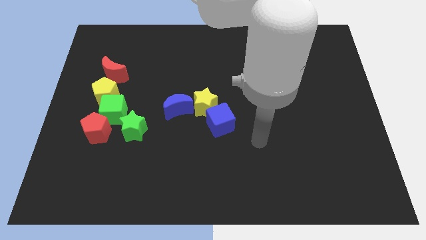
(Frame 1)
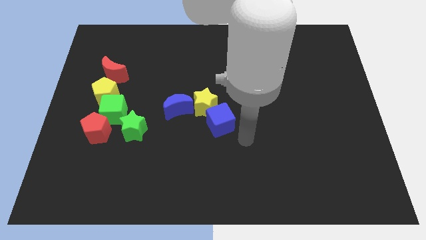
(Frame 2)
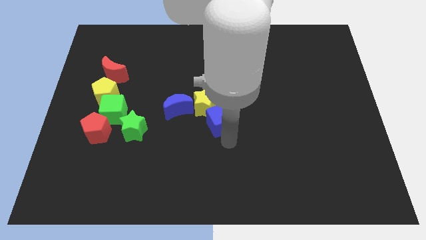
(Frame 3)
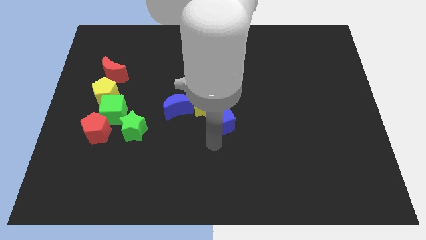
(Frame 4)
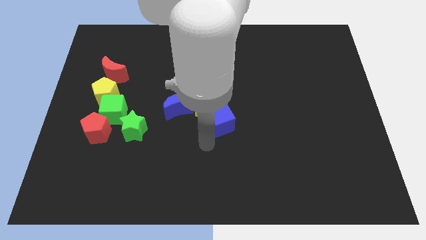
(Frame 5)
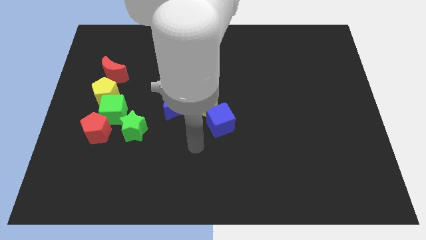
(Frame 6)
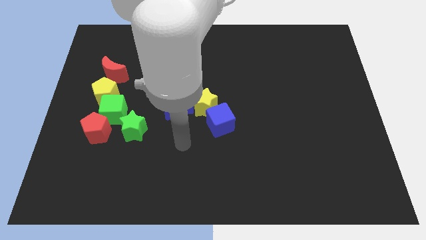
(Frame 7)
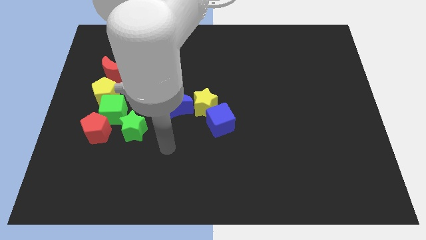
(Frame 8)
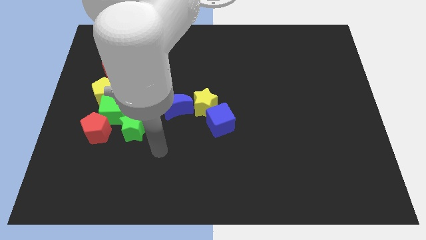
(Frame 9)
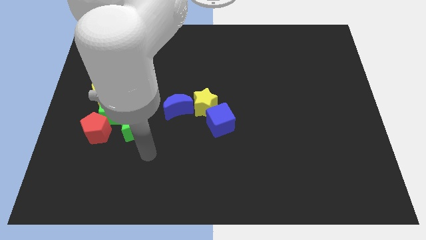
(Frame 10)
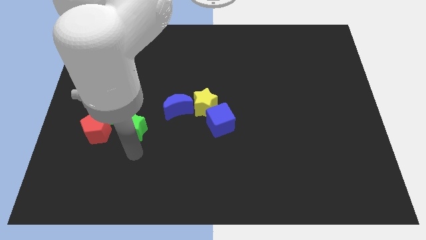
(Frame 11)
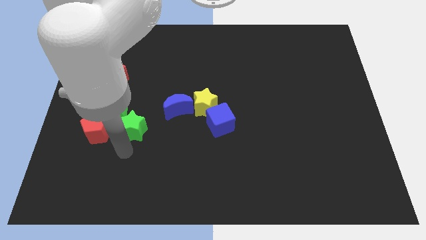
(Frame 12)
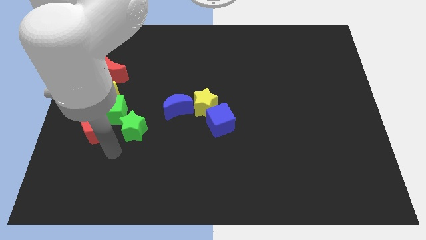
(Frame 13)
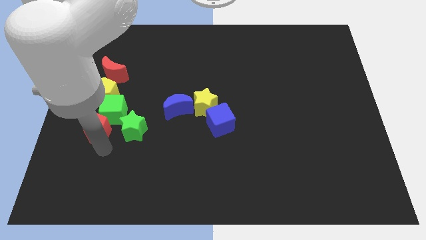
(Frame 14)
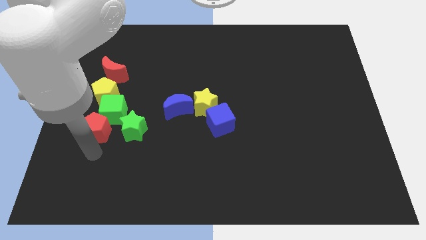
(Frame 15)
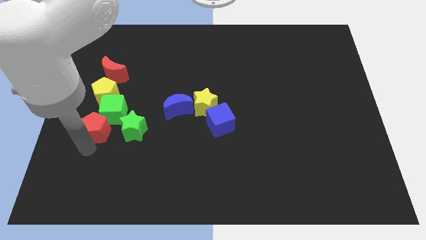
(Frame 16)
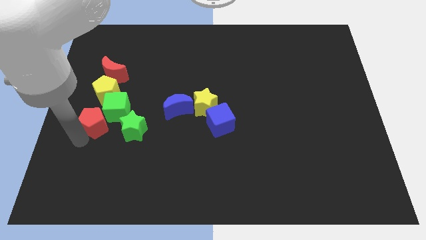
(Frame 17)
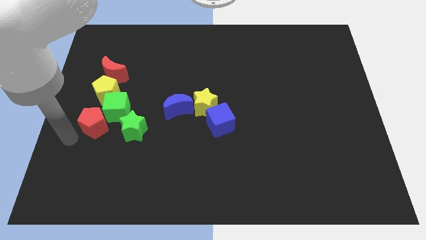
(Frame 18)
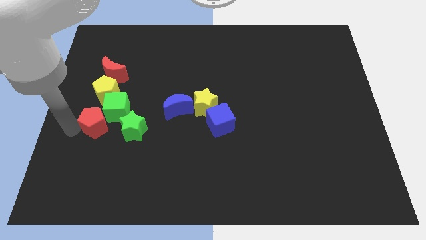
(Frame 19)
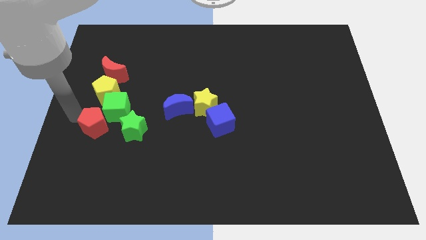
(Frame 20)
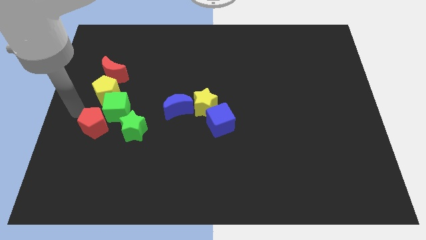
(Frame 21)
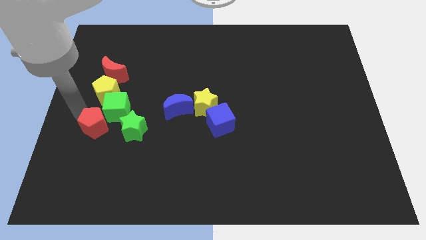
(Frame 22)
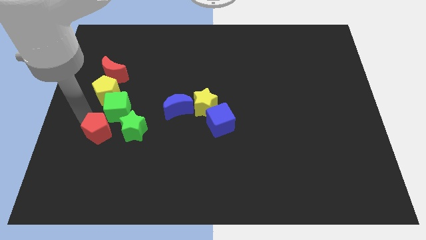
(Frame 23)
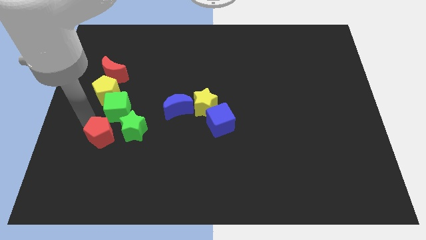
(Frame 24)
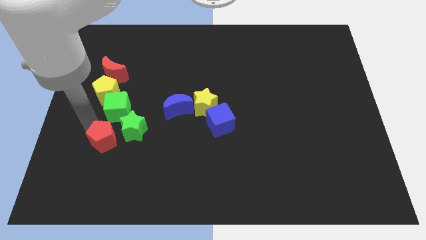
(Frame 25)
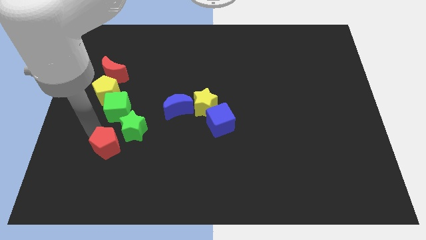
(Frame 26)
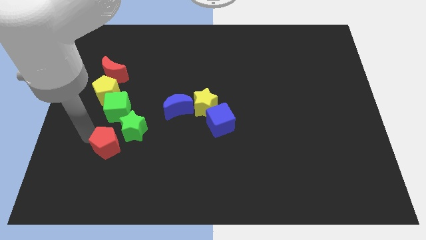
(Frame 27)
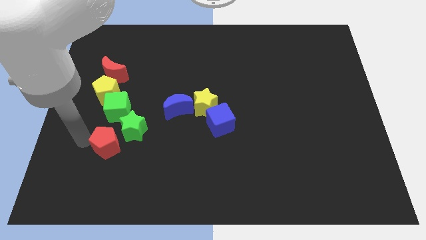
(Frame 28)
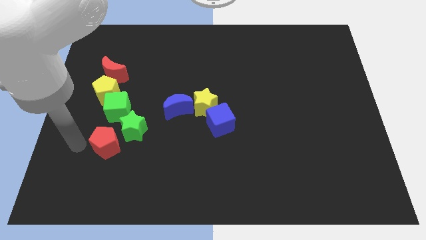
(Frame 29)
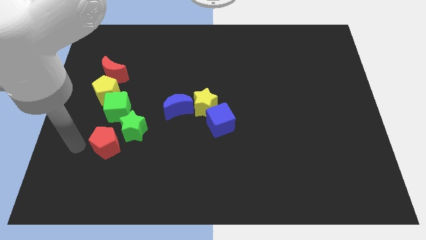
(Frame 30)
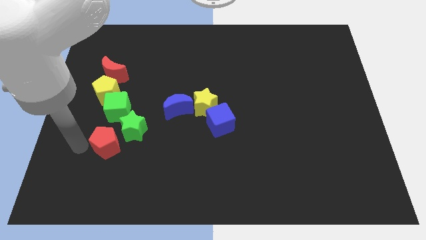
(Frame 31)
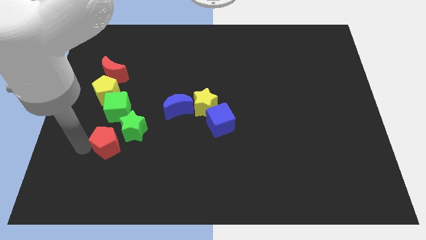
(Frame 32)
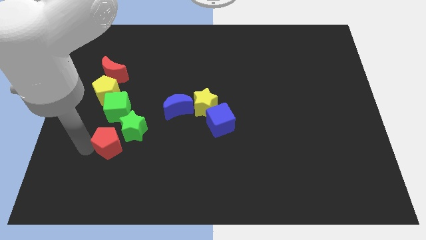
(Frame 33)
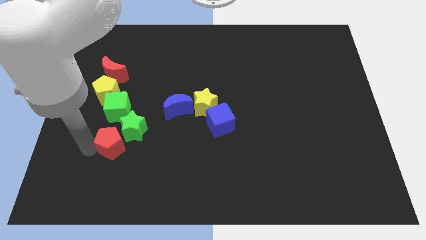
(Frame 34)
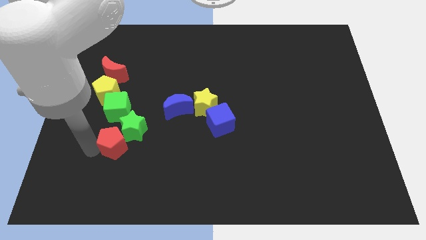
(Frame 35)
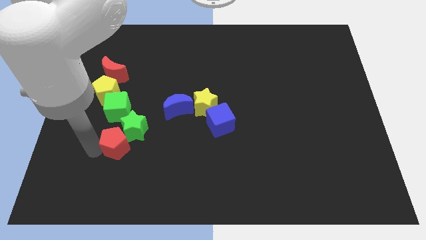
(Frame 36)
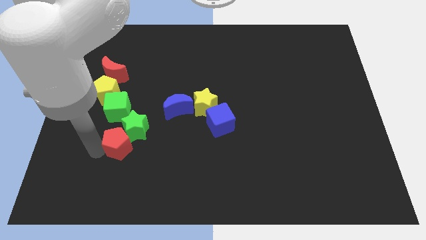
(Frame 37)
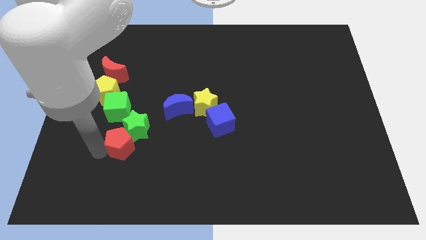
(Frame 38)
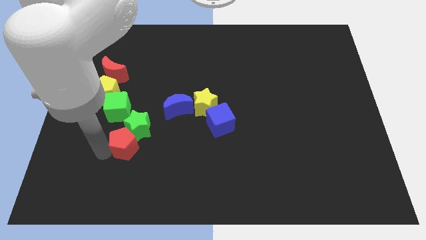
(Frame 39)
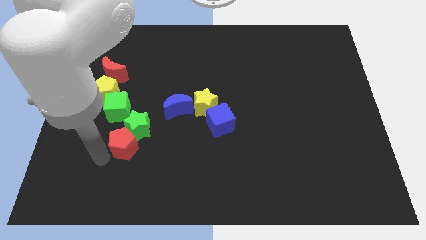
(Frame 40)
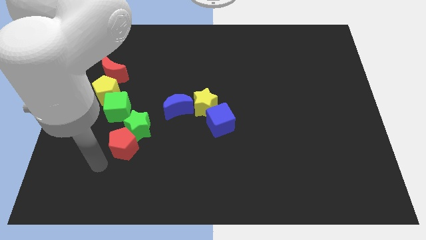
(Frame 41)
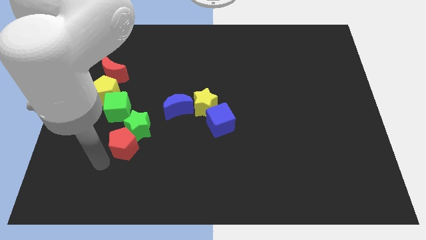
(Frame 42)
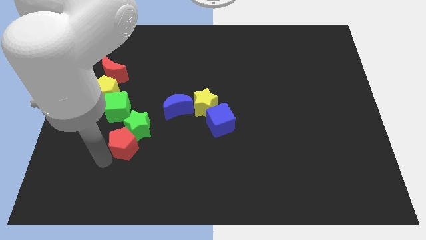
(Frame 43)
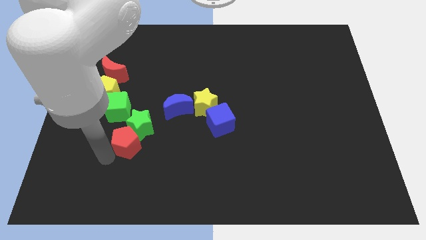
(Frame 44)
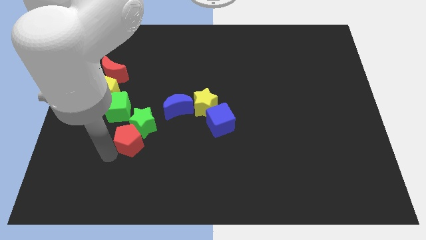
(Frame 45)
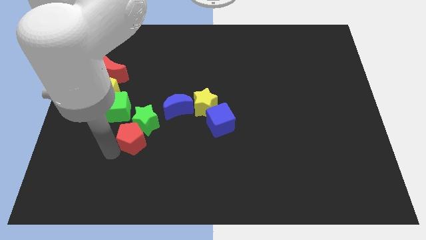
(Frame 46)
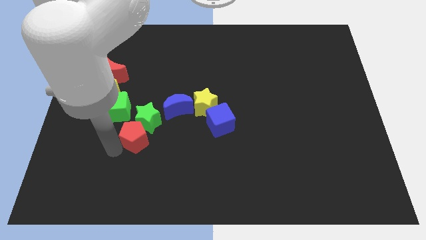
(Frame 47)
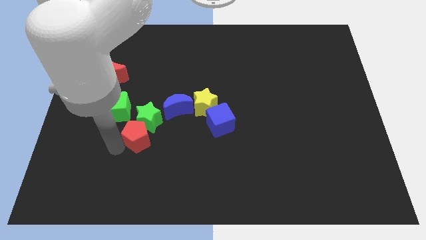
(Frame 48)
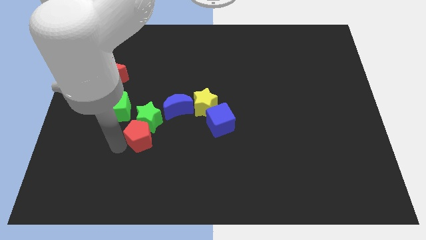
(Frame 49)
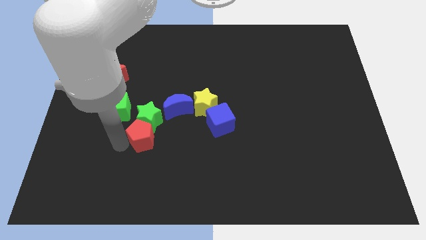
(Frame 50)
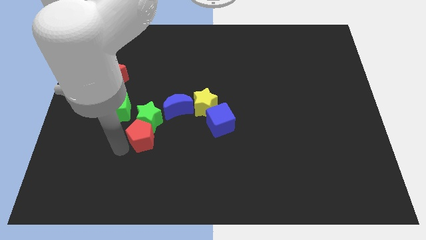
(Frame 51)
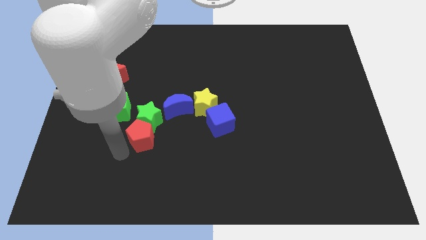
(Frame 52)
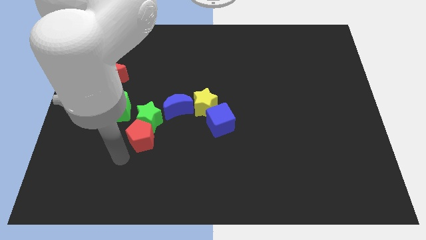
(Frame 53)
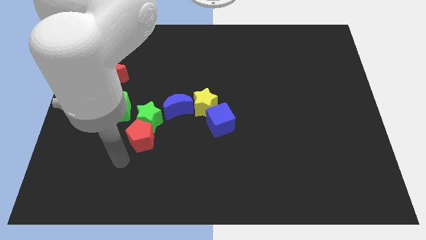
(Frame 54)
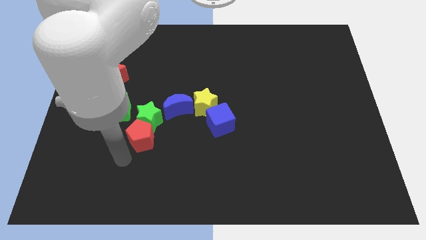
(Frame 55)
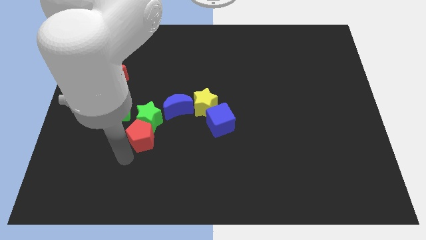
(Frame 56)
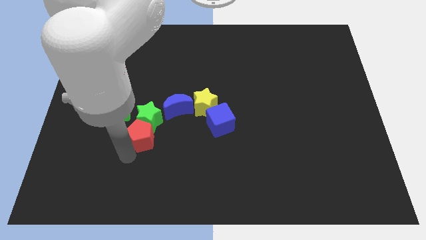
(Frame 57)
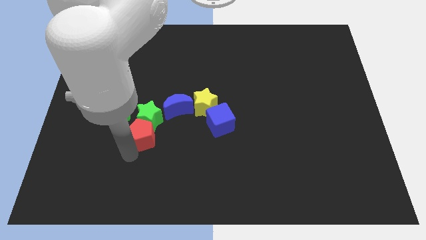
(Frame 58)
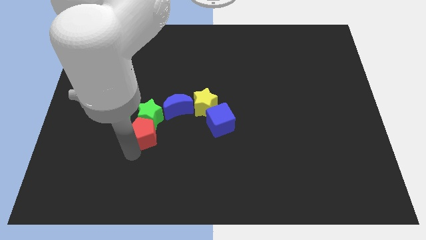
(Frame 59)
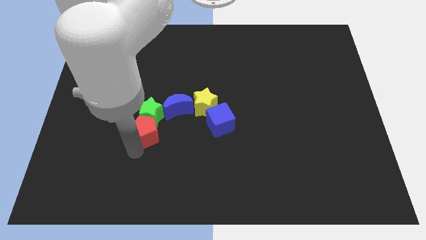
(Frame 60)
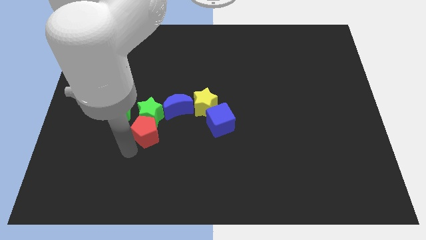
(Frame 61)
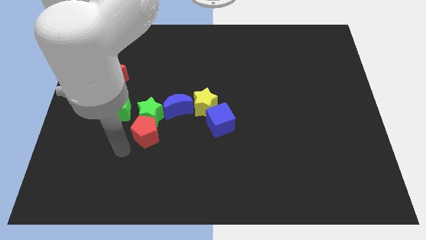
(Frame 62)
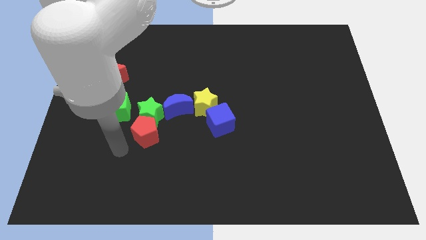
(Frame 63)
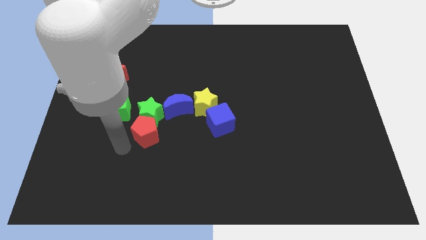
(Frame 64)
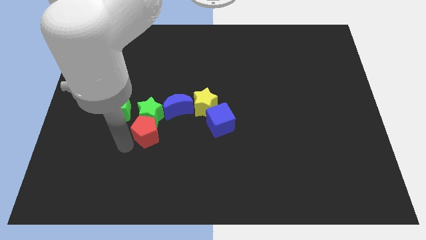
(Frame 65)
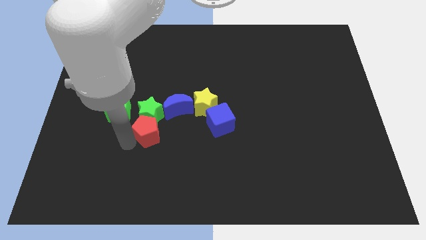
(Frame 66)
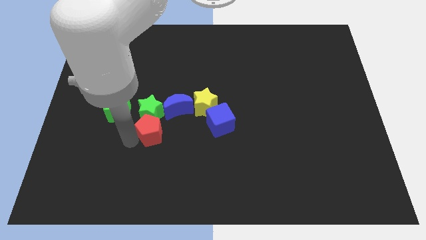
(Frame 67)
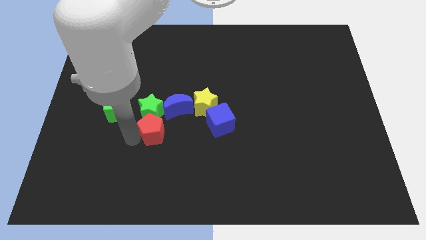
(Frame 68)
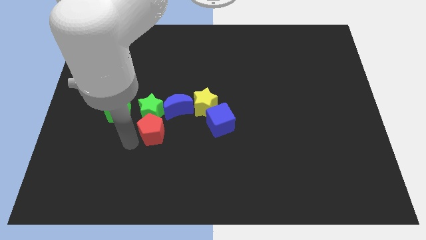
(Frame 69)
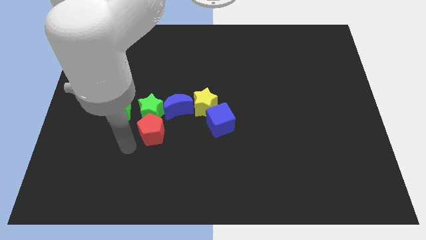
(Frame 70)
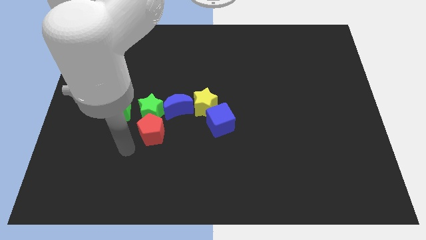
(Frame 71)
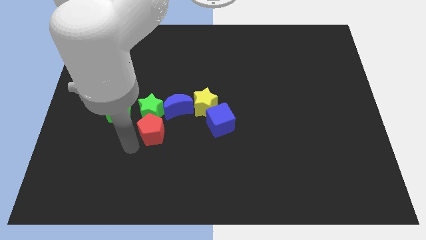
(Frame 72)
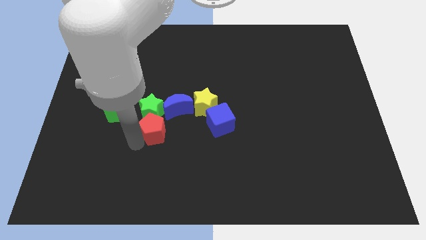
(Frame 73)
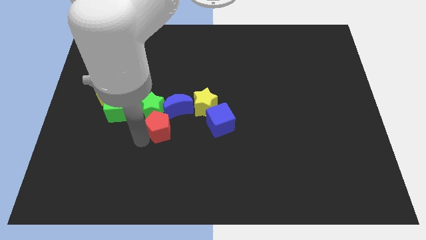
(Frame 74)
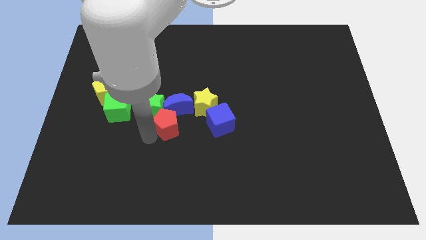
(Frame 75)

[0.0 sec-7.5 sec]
push the red pentagon towards the blue moon

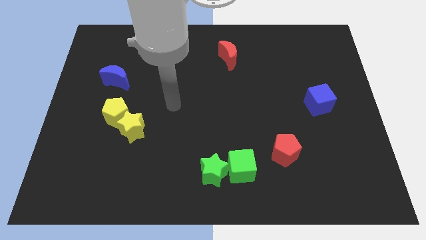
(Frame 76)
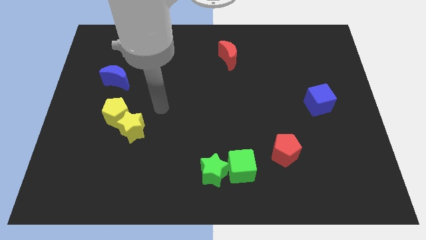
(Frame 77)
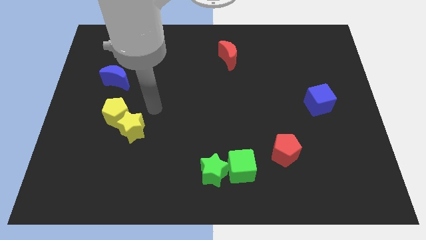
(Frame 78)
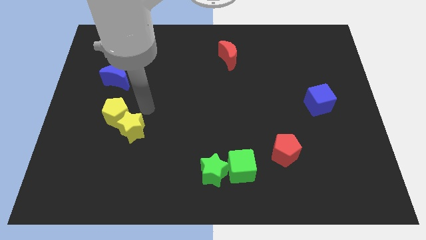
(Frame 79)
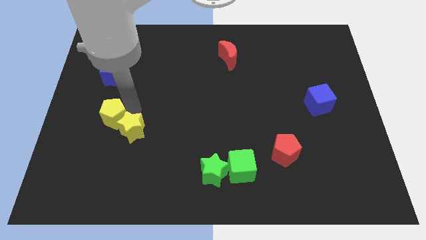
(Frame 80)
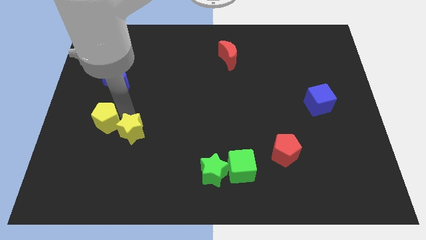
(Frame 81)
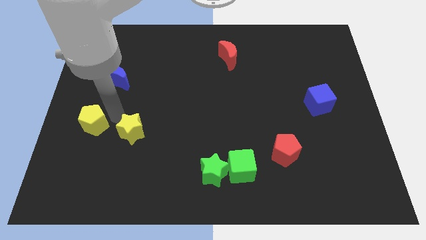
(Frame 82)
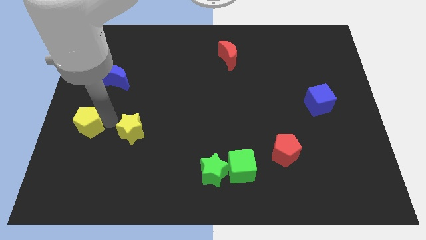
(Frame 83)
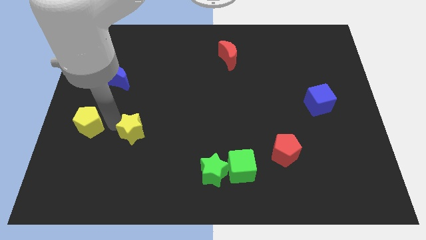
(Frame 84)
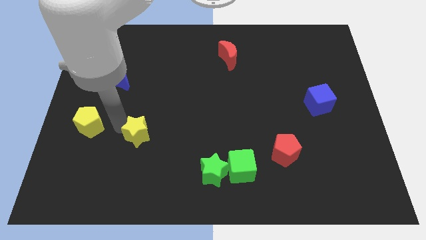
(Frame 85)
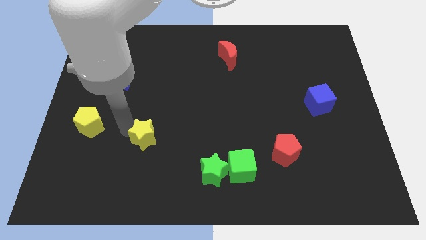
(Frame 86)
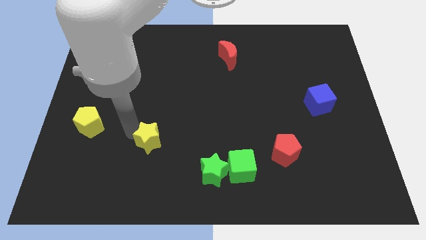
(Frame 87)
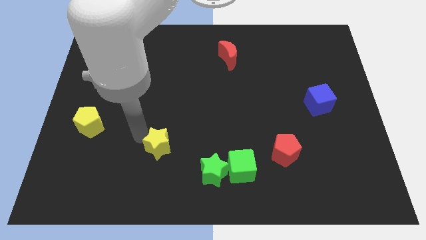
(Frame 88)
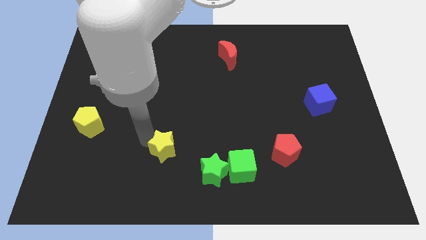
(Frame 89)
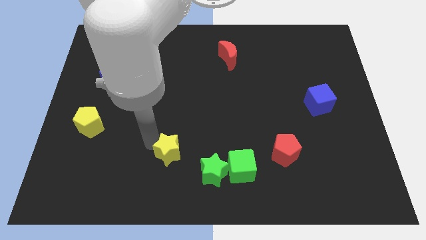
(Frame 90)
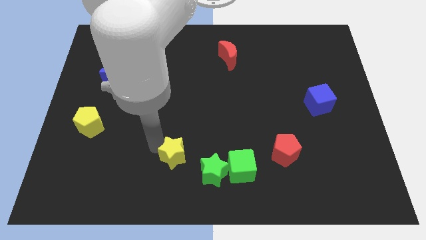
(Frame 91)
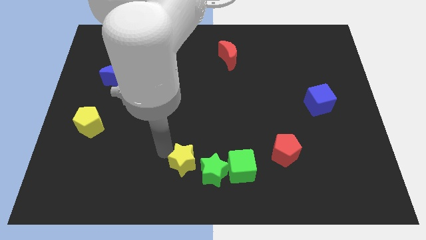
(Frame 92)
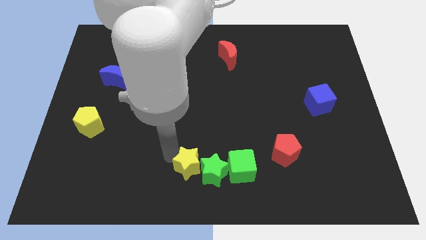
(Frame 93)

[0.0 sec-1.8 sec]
move the yellow star close to the green star
